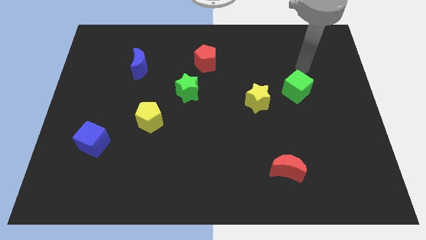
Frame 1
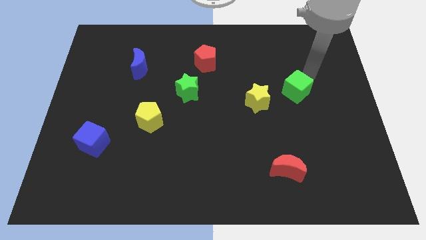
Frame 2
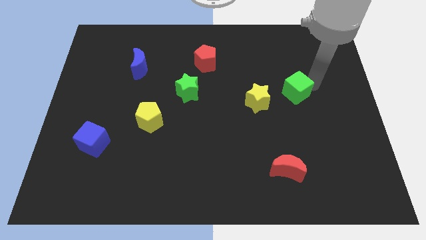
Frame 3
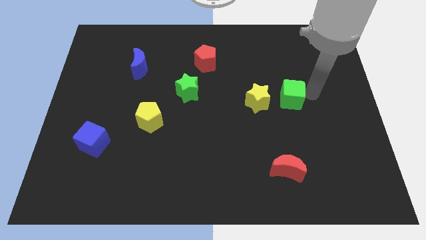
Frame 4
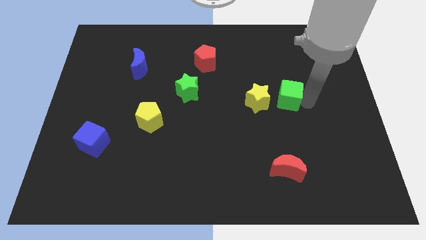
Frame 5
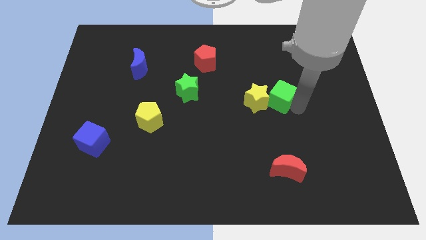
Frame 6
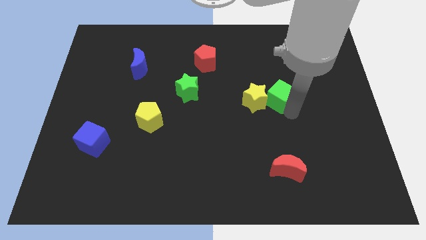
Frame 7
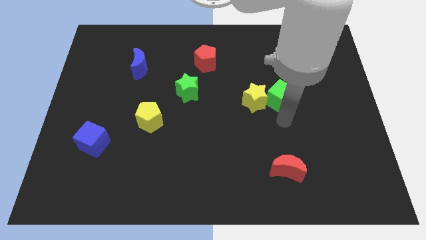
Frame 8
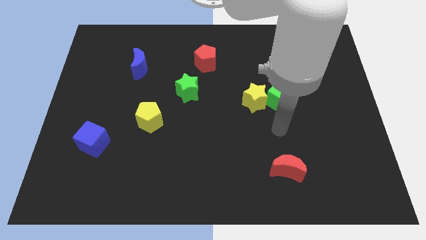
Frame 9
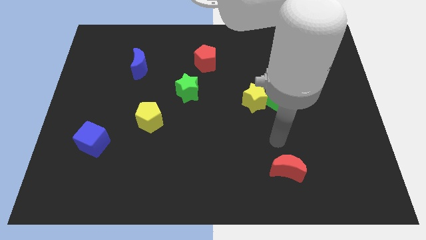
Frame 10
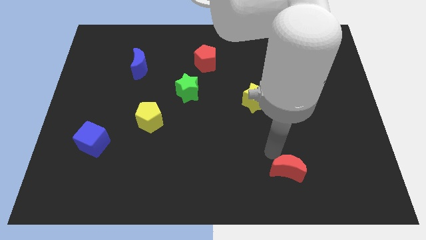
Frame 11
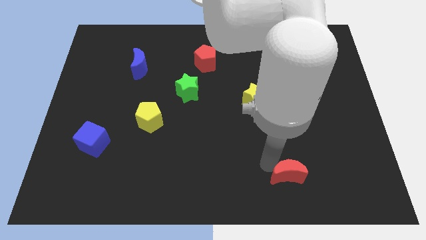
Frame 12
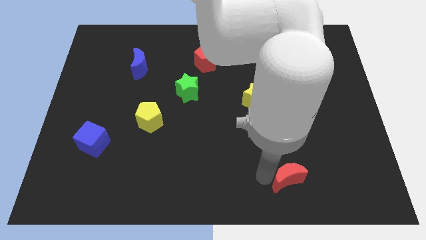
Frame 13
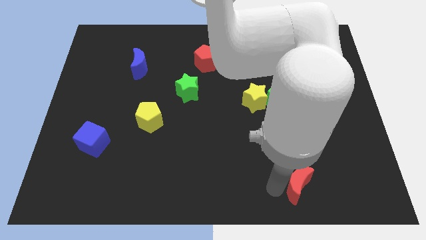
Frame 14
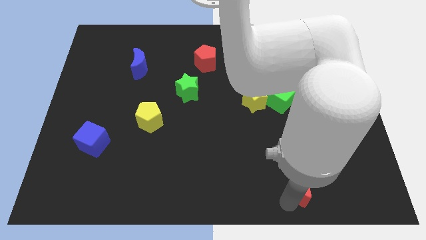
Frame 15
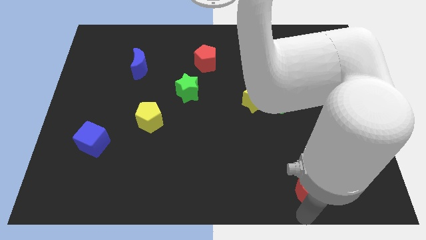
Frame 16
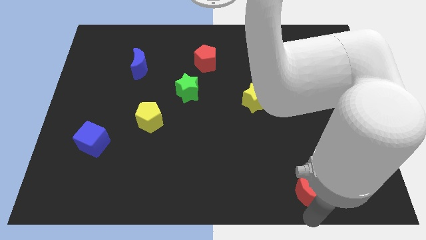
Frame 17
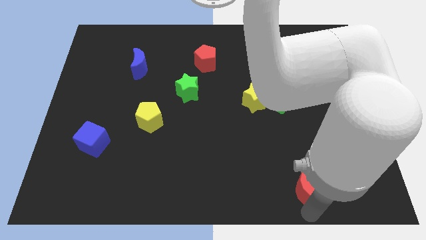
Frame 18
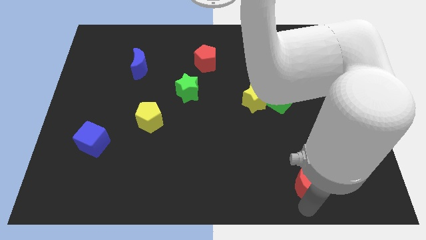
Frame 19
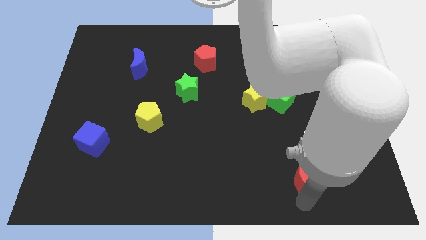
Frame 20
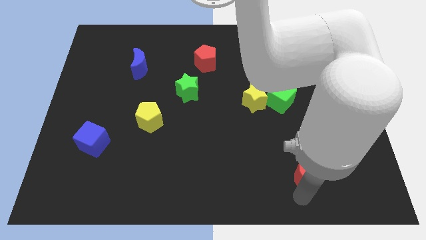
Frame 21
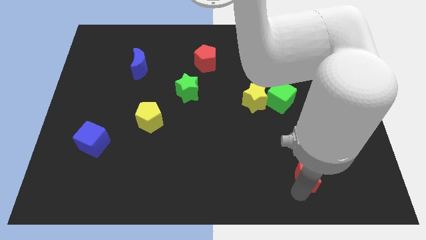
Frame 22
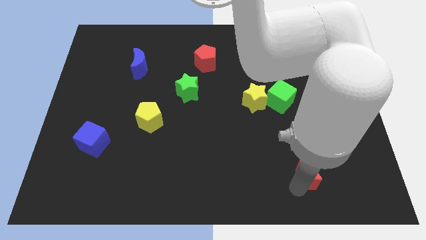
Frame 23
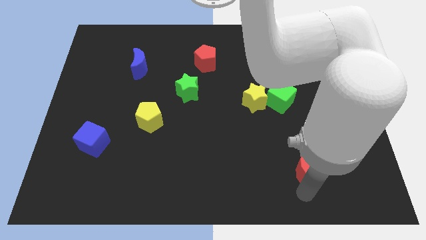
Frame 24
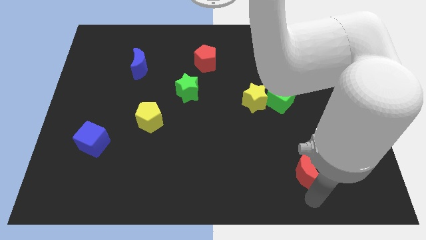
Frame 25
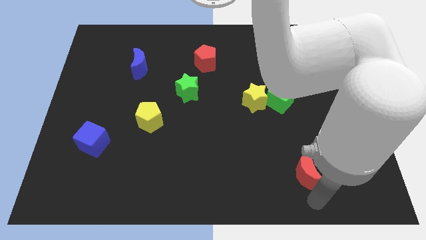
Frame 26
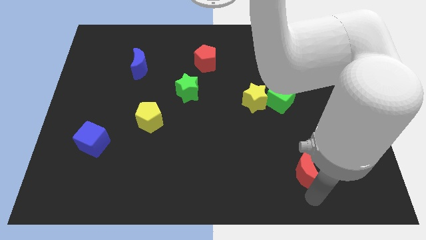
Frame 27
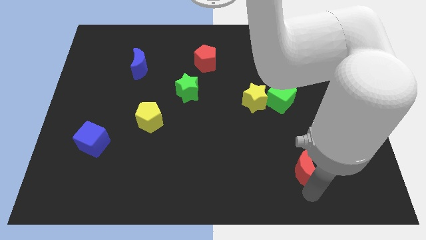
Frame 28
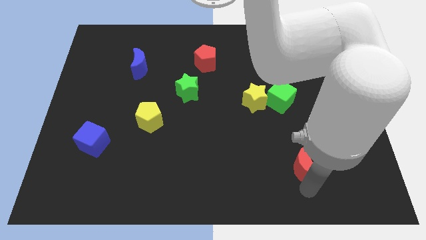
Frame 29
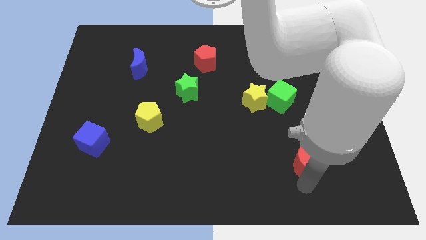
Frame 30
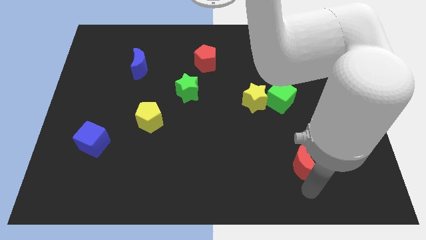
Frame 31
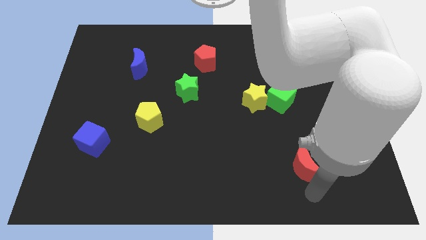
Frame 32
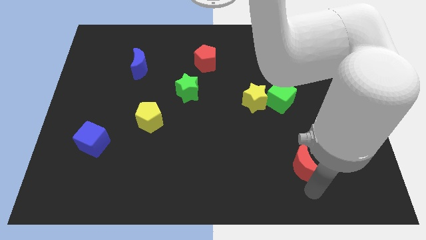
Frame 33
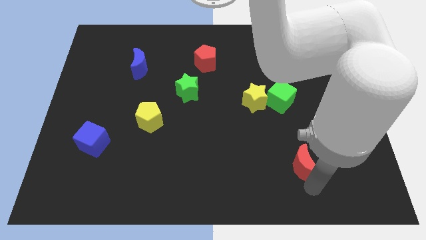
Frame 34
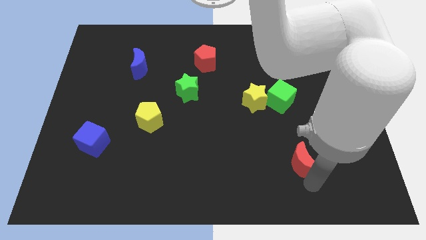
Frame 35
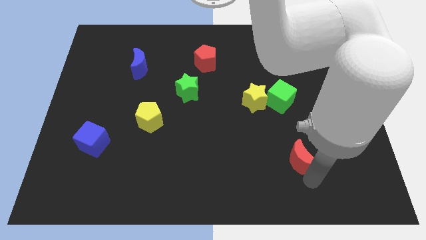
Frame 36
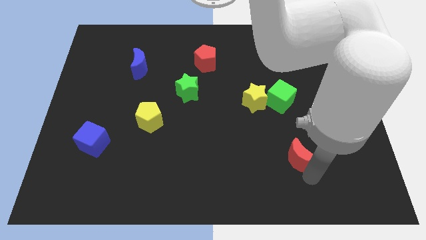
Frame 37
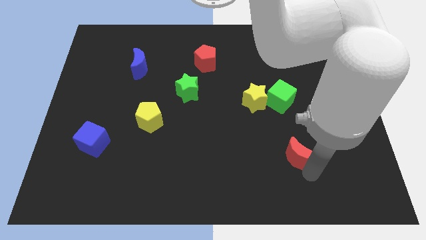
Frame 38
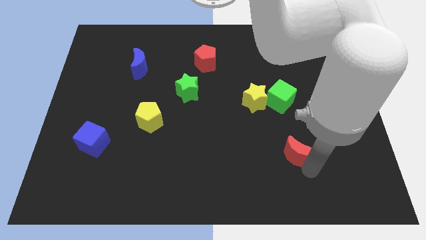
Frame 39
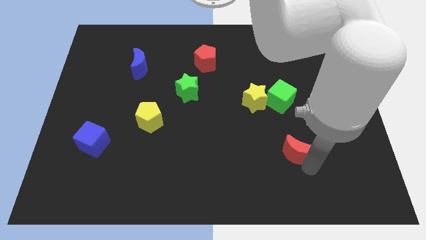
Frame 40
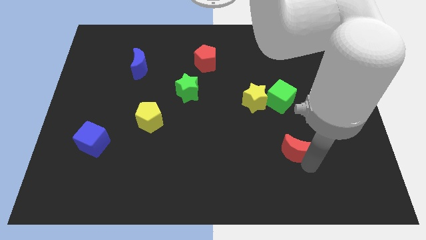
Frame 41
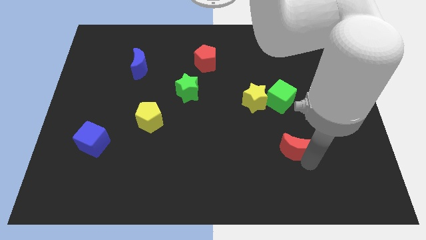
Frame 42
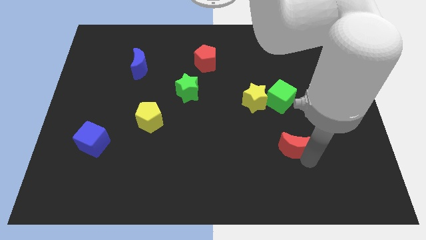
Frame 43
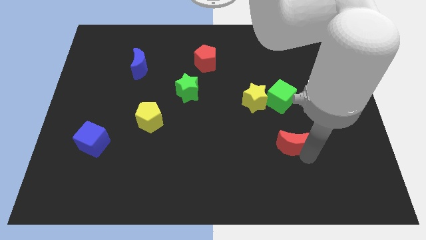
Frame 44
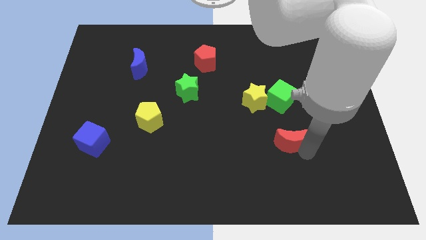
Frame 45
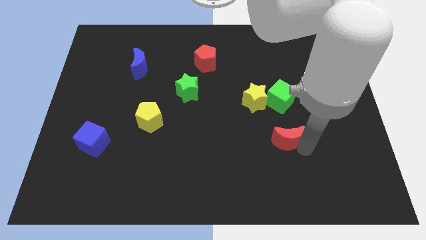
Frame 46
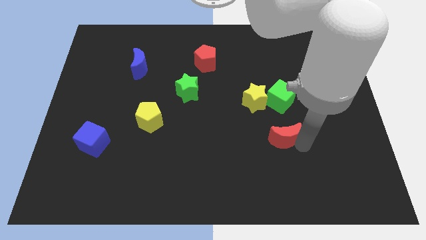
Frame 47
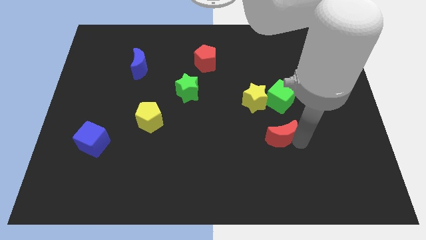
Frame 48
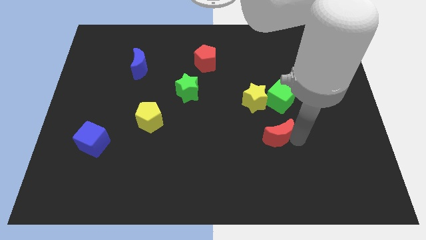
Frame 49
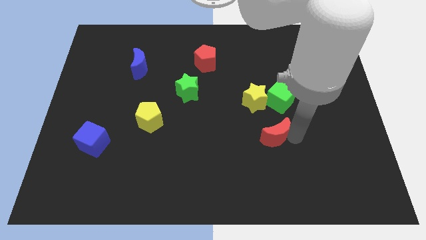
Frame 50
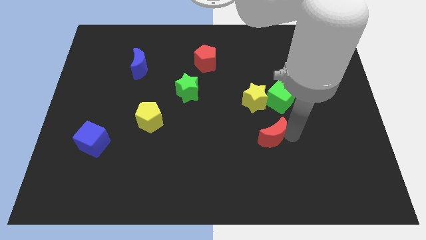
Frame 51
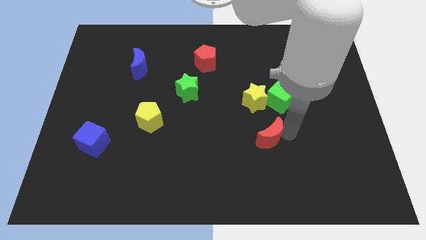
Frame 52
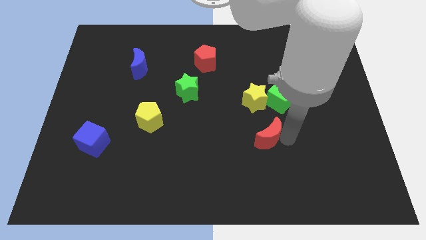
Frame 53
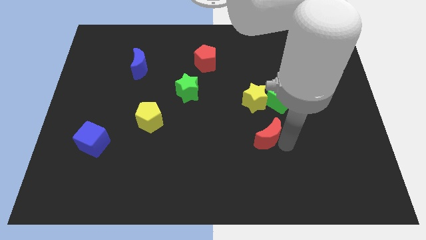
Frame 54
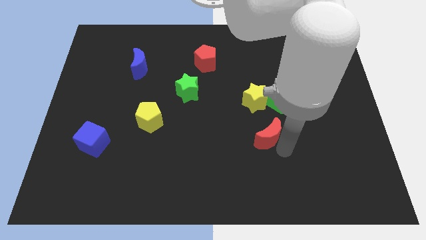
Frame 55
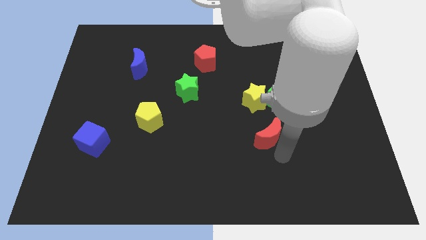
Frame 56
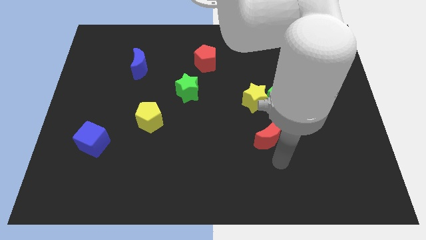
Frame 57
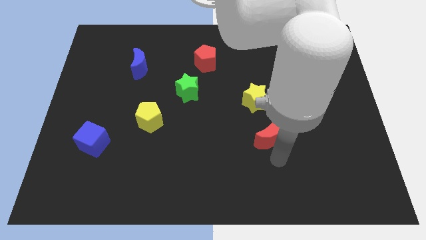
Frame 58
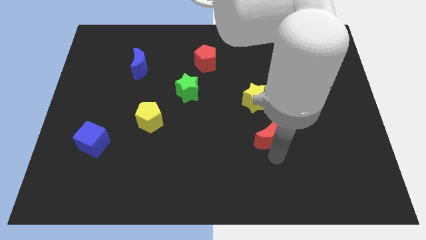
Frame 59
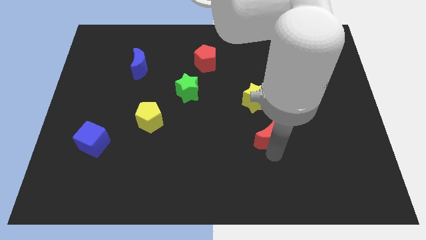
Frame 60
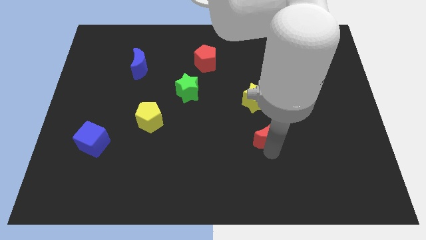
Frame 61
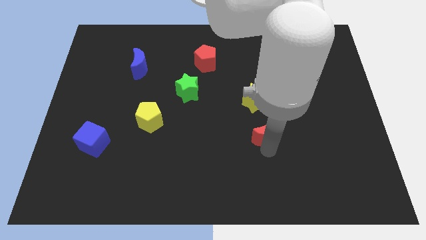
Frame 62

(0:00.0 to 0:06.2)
move the red moon to the bottom left of the green cube
